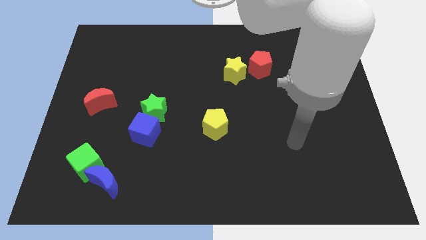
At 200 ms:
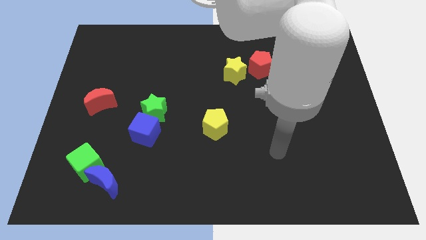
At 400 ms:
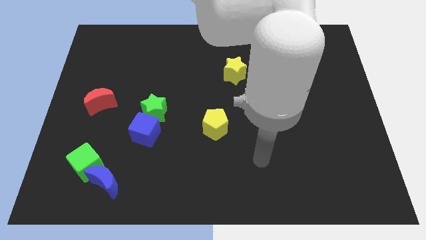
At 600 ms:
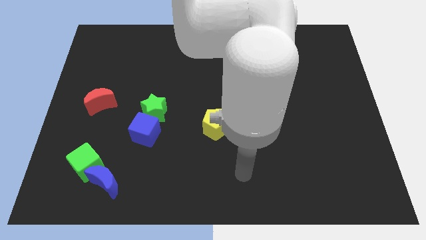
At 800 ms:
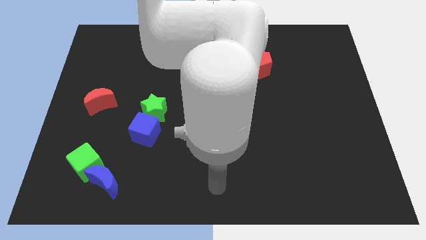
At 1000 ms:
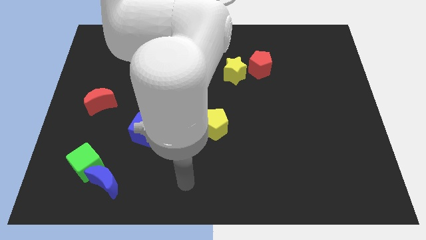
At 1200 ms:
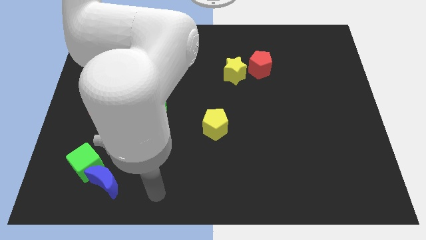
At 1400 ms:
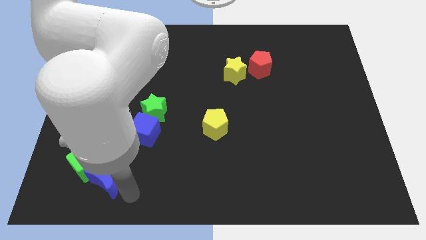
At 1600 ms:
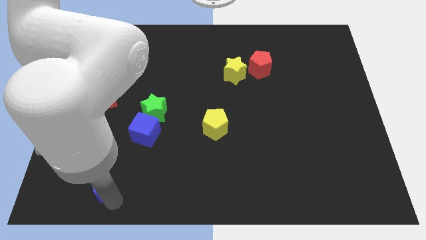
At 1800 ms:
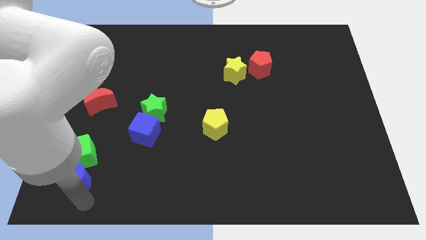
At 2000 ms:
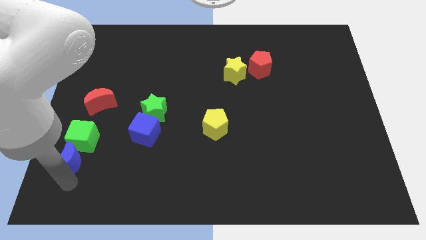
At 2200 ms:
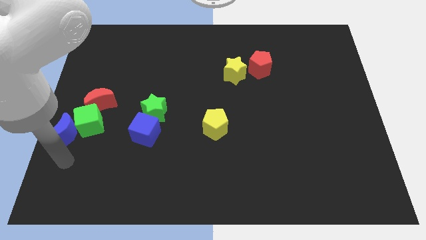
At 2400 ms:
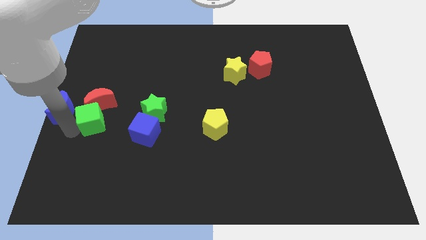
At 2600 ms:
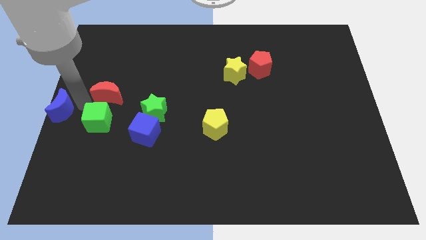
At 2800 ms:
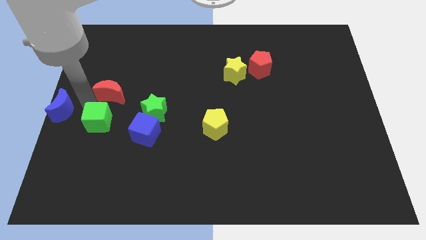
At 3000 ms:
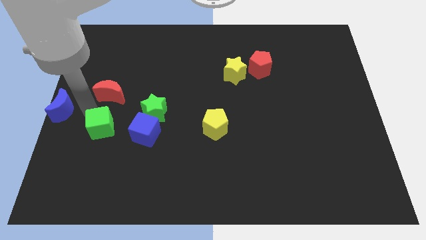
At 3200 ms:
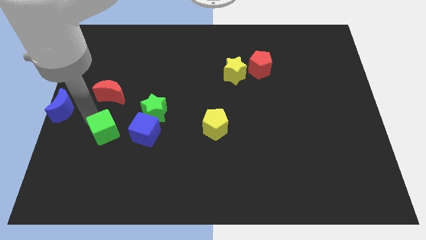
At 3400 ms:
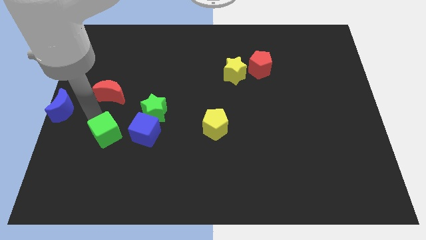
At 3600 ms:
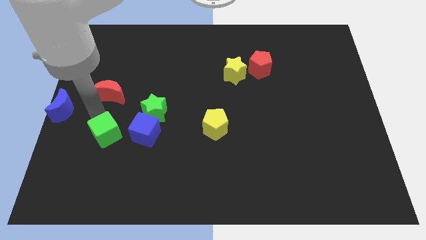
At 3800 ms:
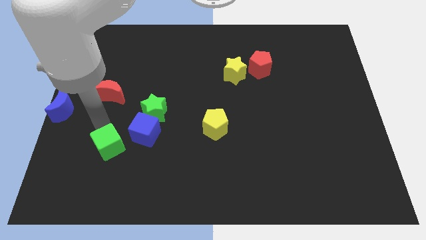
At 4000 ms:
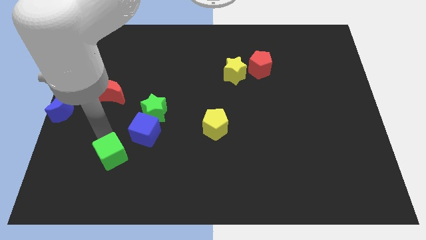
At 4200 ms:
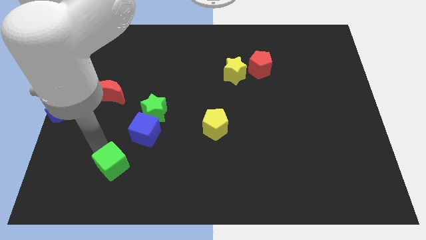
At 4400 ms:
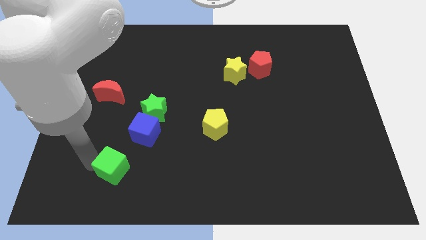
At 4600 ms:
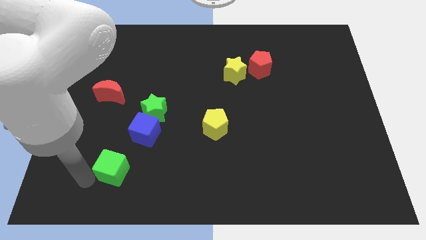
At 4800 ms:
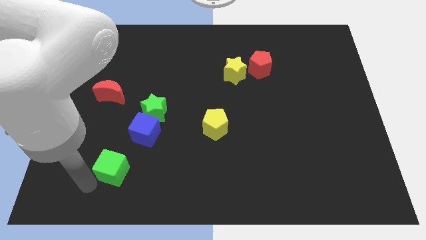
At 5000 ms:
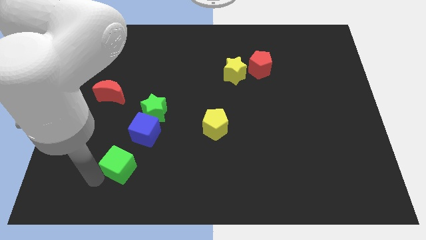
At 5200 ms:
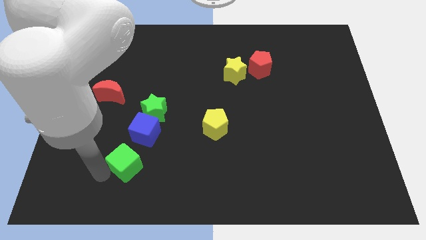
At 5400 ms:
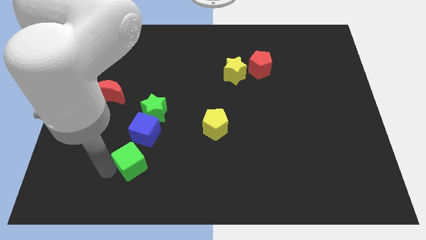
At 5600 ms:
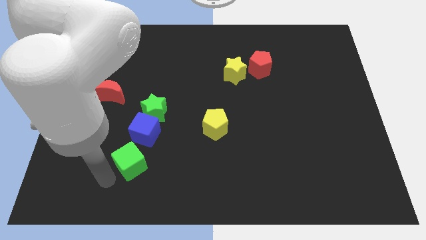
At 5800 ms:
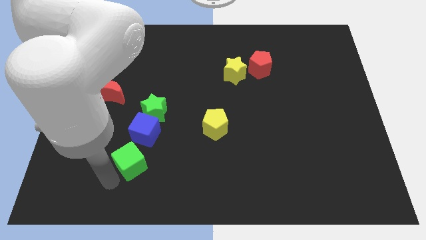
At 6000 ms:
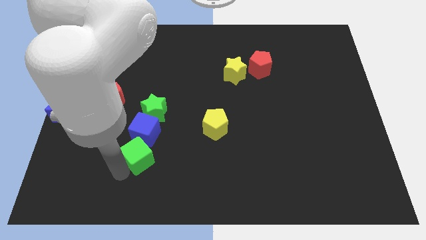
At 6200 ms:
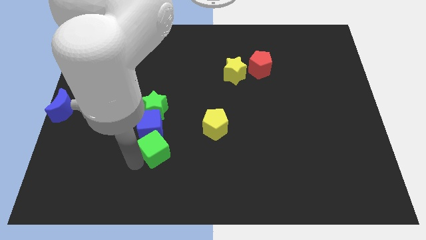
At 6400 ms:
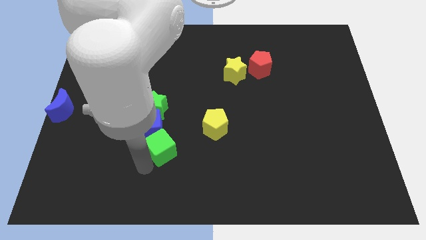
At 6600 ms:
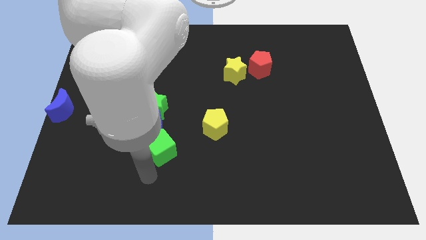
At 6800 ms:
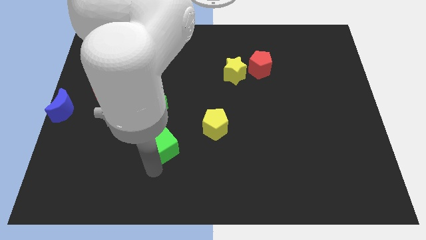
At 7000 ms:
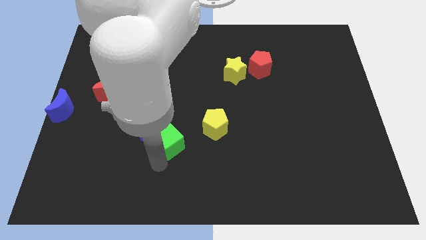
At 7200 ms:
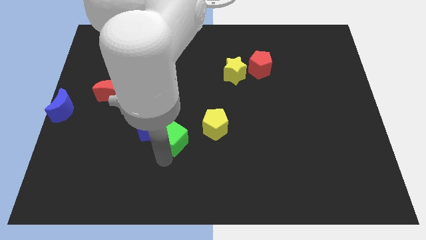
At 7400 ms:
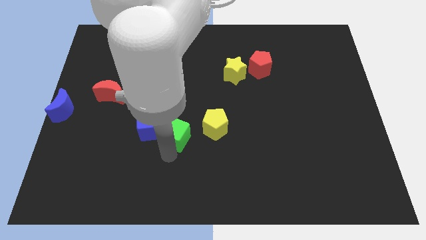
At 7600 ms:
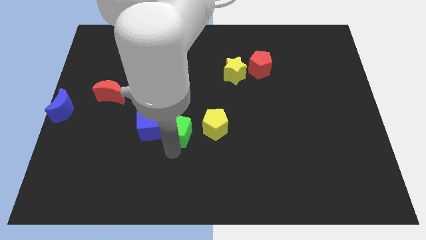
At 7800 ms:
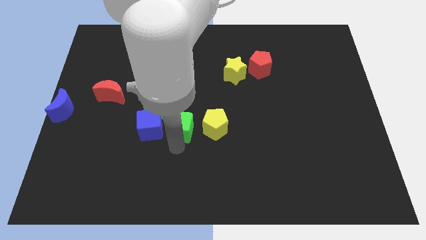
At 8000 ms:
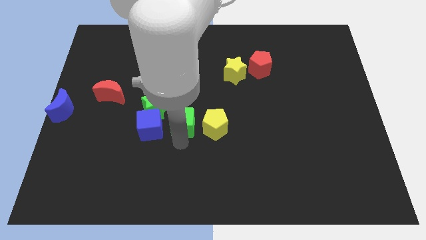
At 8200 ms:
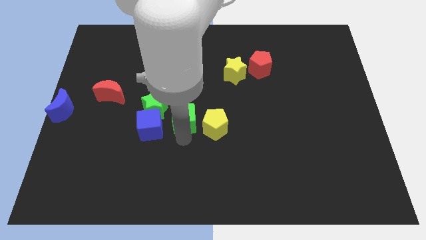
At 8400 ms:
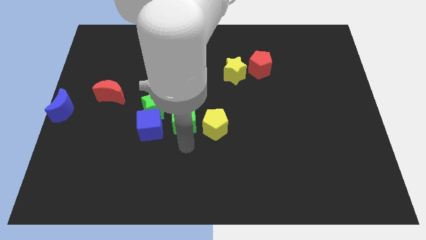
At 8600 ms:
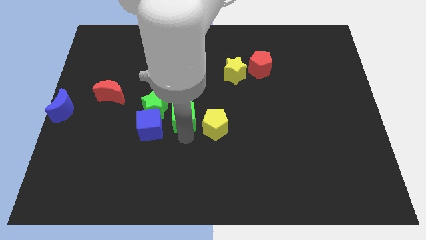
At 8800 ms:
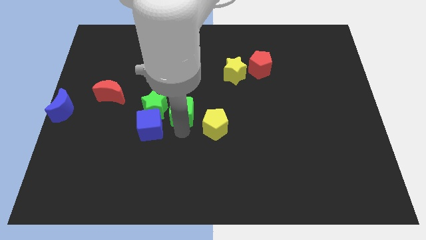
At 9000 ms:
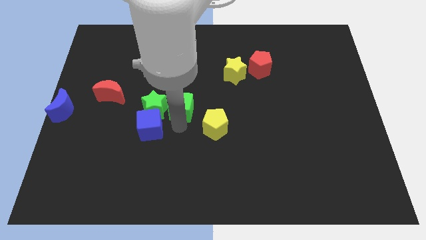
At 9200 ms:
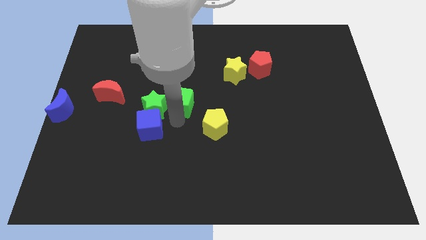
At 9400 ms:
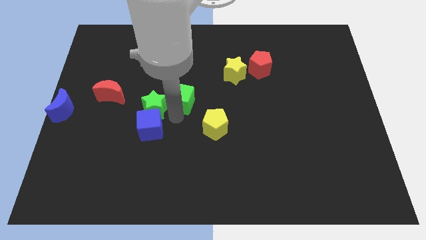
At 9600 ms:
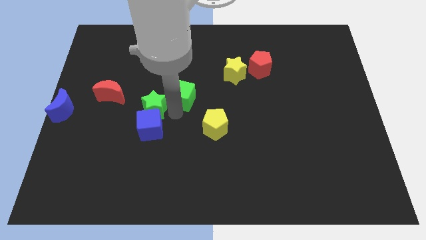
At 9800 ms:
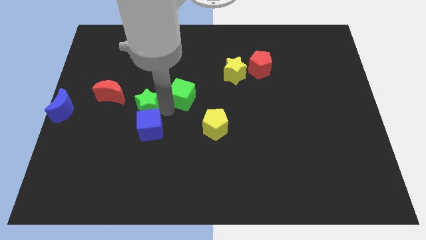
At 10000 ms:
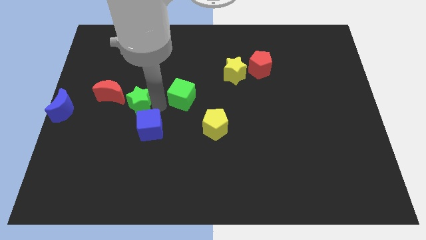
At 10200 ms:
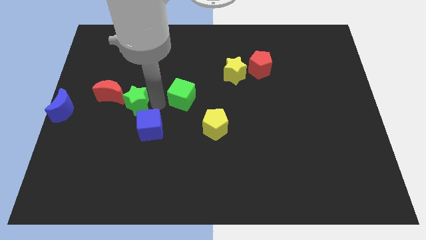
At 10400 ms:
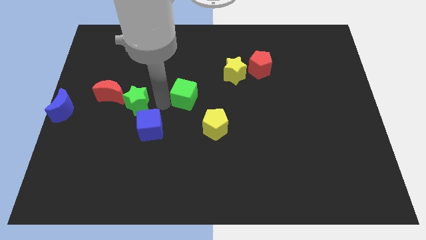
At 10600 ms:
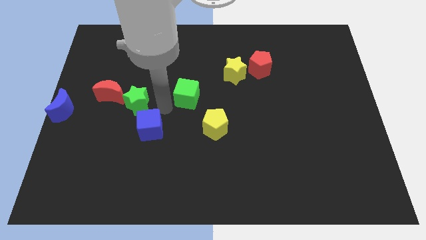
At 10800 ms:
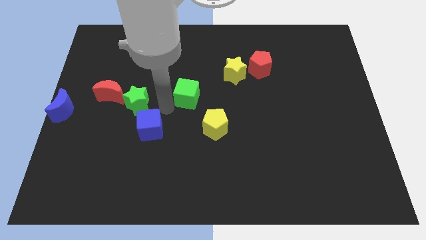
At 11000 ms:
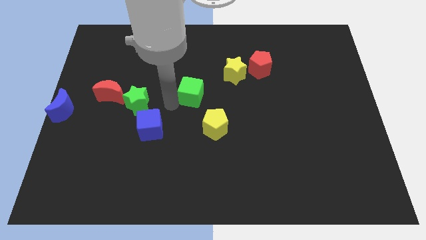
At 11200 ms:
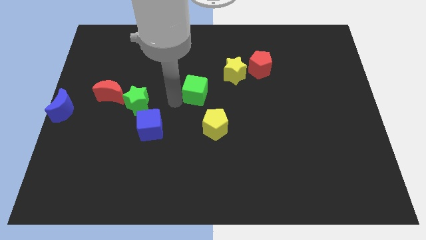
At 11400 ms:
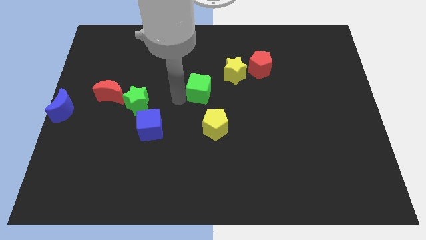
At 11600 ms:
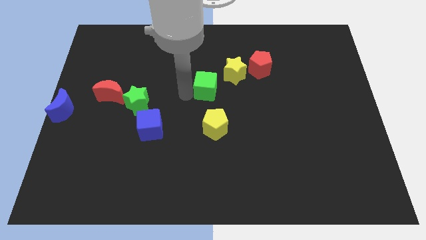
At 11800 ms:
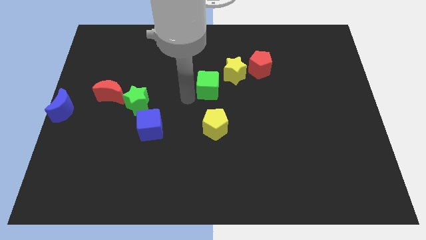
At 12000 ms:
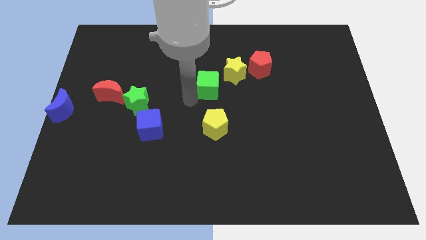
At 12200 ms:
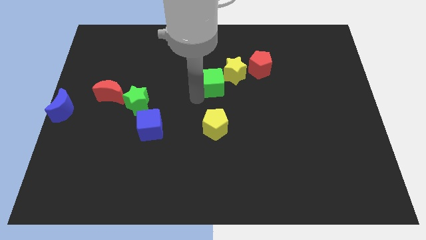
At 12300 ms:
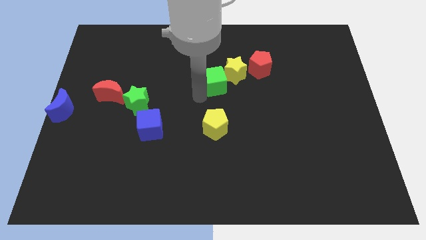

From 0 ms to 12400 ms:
put the green cube to the yellow star

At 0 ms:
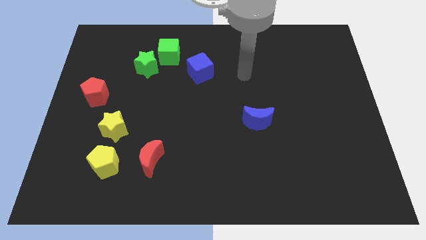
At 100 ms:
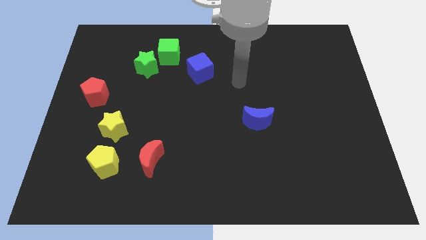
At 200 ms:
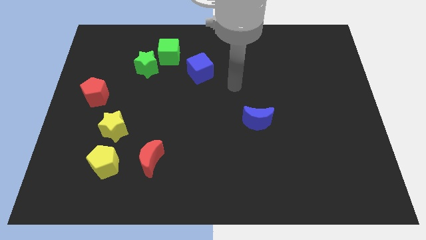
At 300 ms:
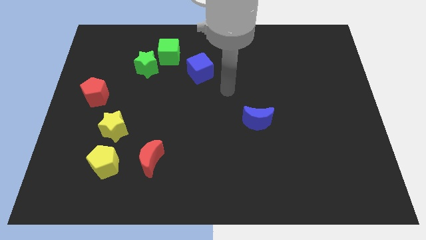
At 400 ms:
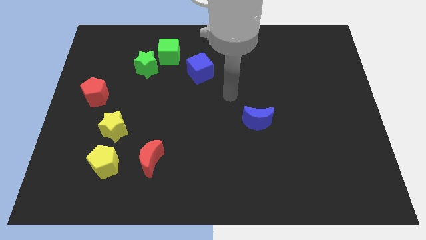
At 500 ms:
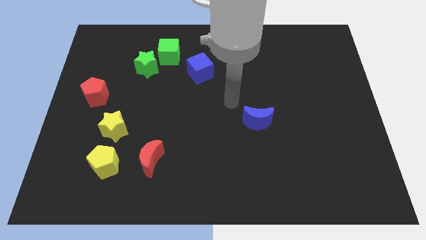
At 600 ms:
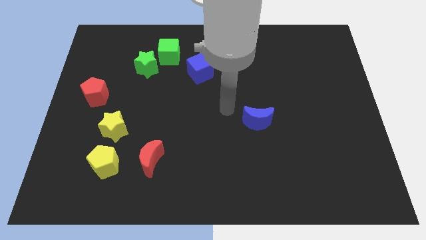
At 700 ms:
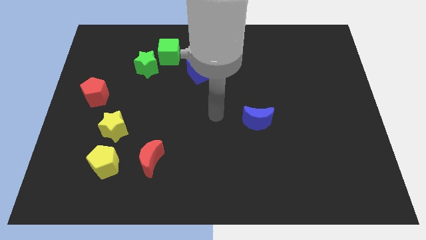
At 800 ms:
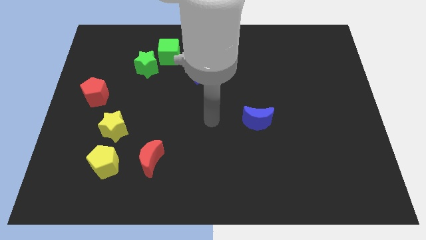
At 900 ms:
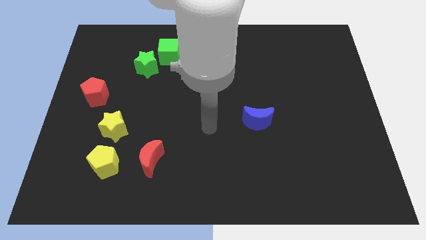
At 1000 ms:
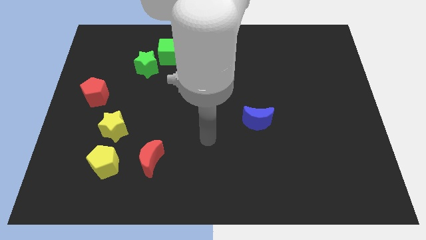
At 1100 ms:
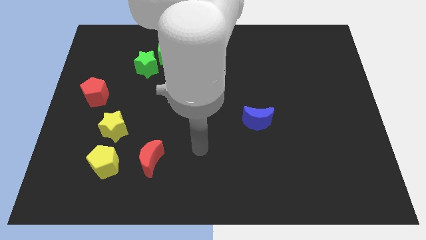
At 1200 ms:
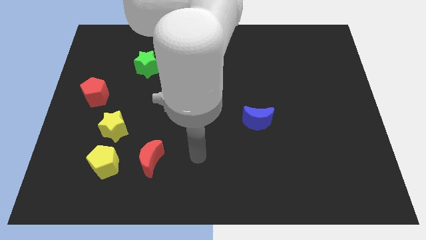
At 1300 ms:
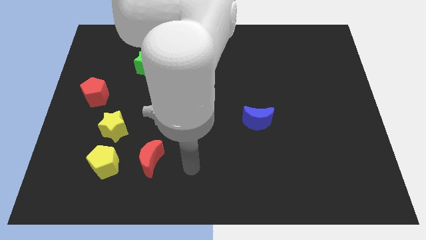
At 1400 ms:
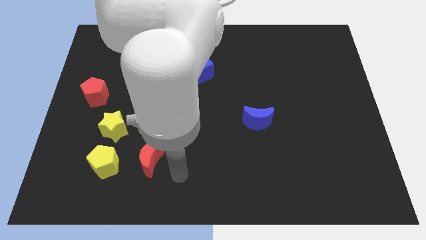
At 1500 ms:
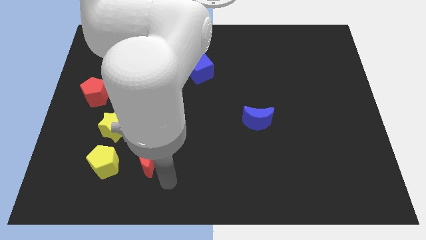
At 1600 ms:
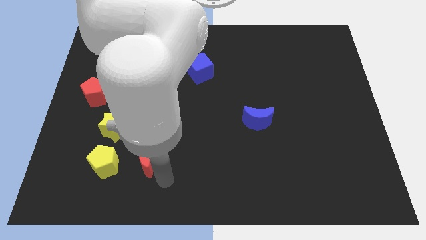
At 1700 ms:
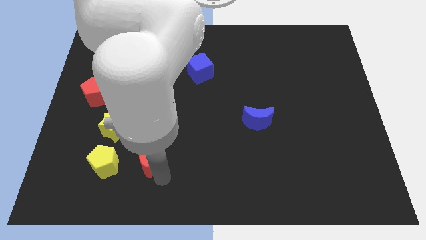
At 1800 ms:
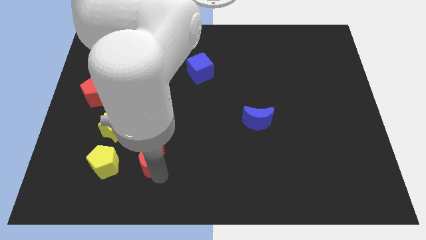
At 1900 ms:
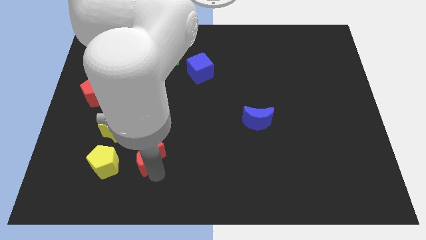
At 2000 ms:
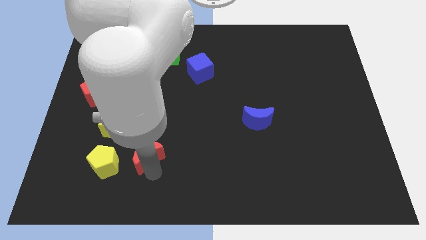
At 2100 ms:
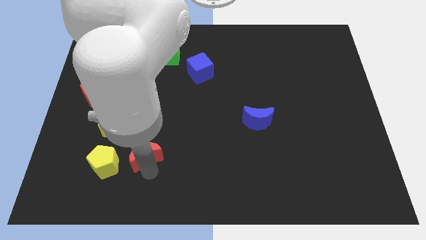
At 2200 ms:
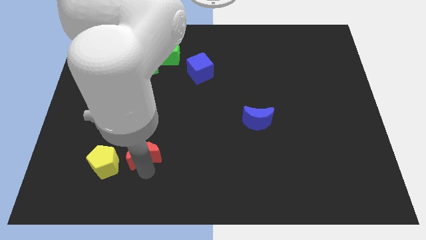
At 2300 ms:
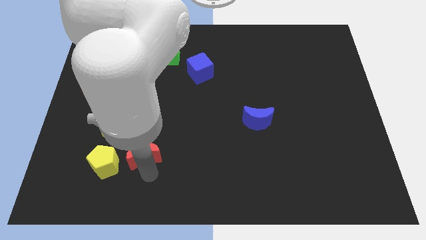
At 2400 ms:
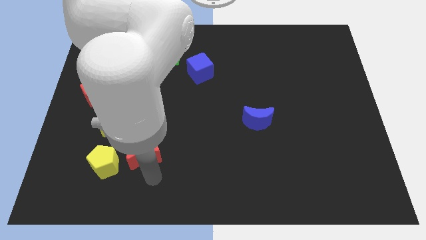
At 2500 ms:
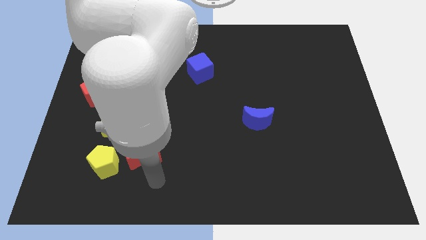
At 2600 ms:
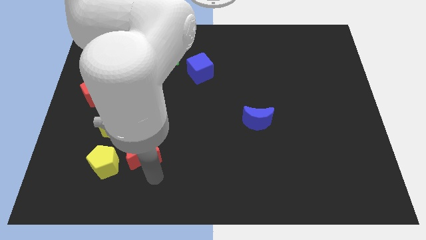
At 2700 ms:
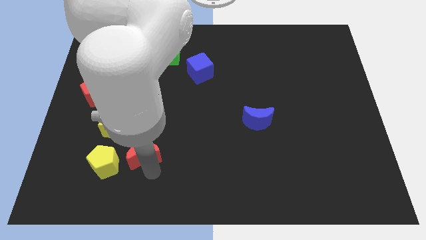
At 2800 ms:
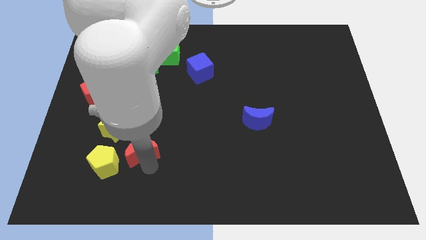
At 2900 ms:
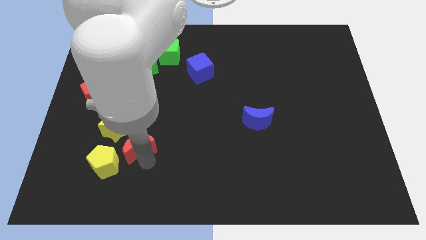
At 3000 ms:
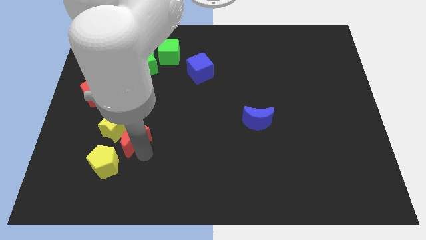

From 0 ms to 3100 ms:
put the red moon close to the yellow star
